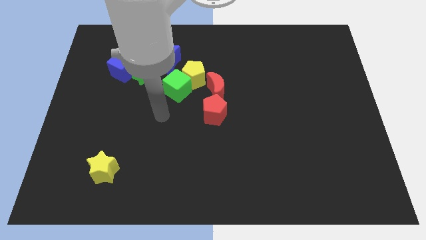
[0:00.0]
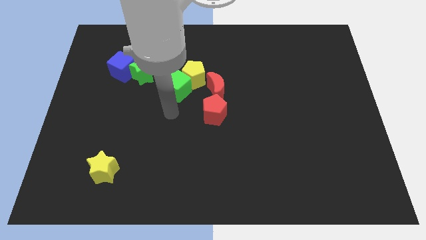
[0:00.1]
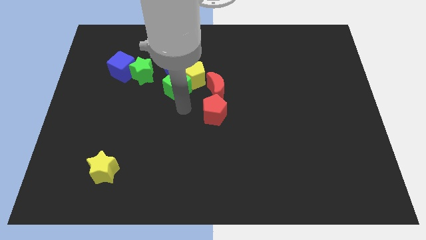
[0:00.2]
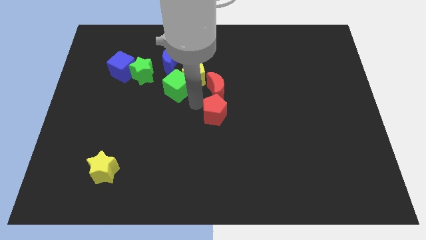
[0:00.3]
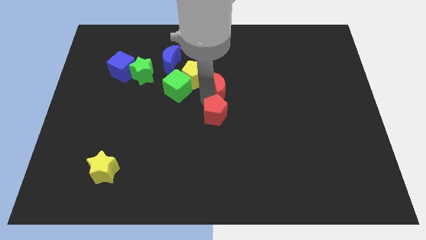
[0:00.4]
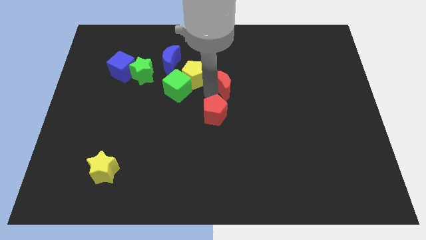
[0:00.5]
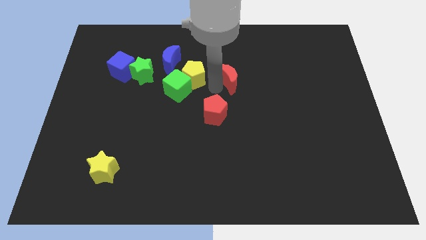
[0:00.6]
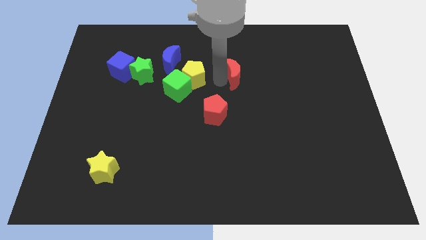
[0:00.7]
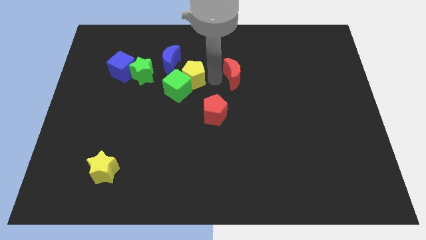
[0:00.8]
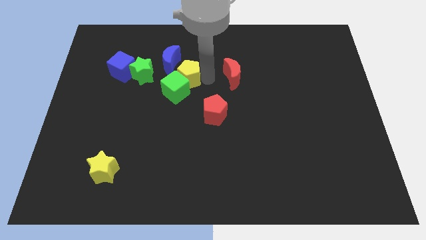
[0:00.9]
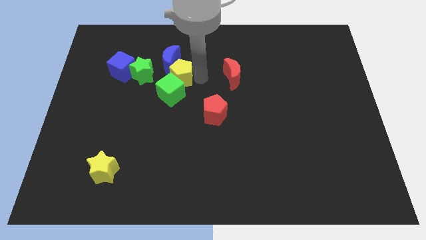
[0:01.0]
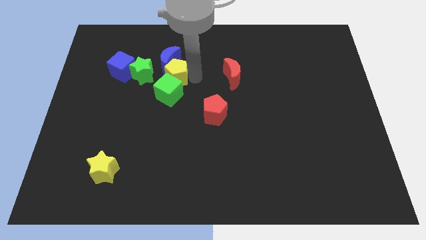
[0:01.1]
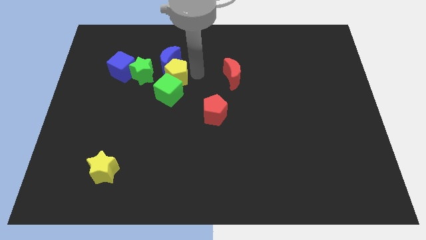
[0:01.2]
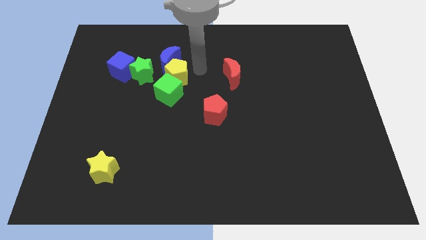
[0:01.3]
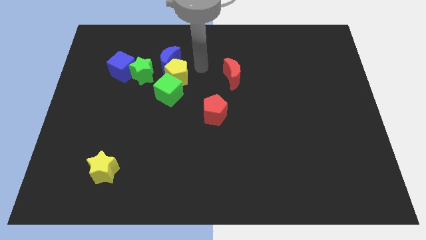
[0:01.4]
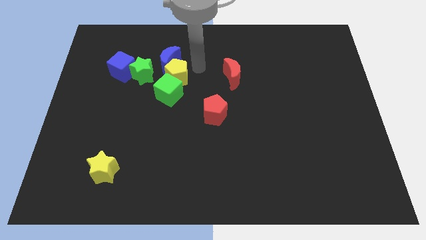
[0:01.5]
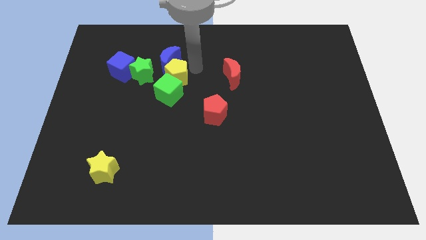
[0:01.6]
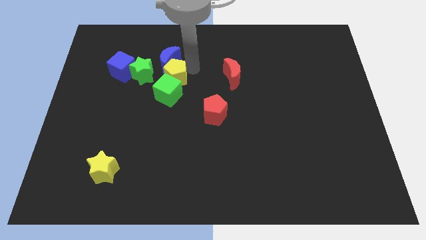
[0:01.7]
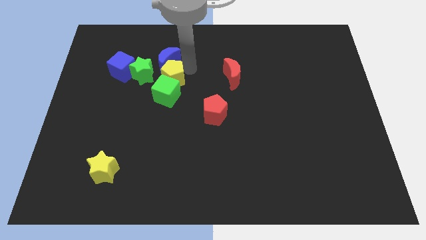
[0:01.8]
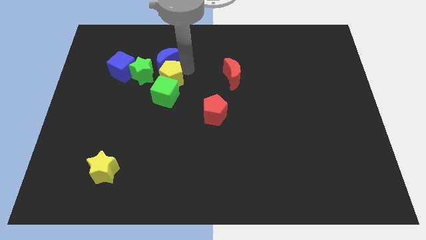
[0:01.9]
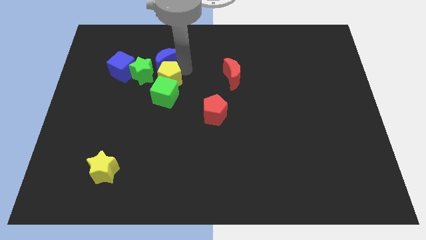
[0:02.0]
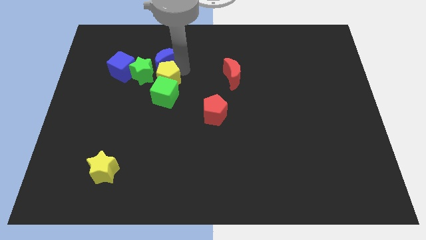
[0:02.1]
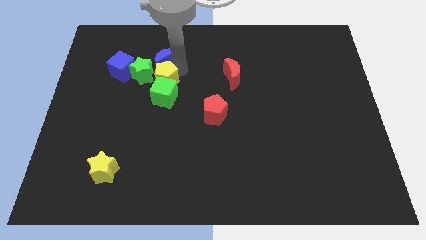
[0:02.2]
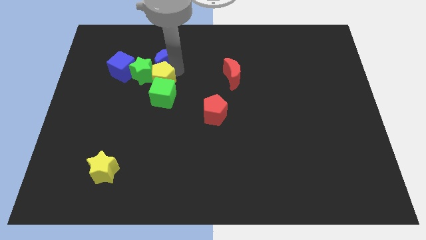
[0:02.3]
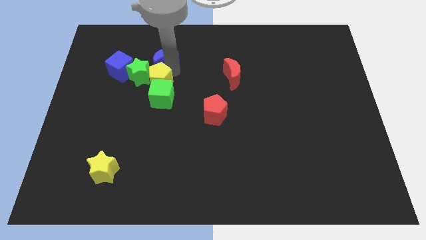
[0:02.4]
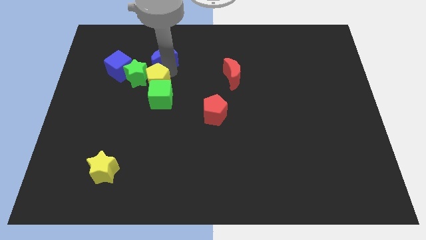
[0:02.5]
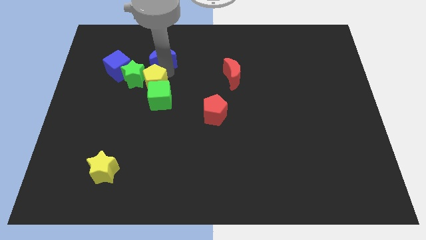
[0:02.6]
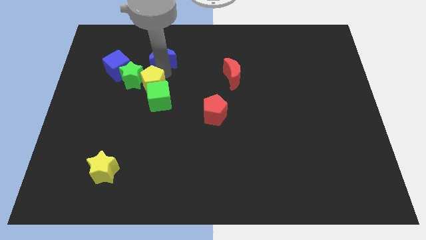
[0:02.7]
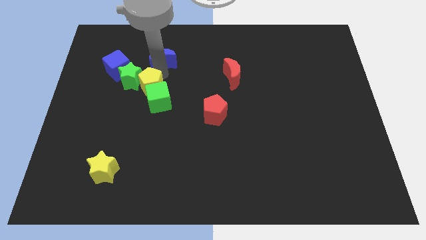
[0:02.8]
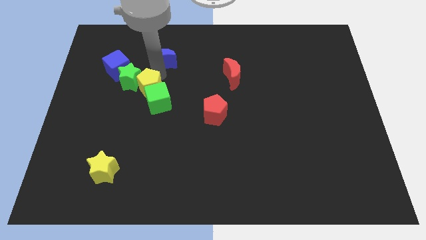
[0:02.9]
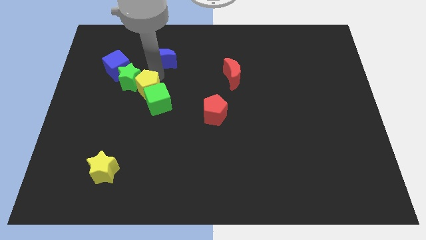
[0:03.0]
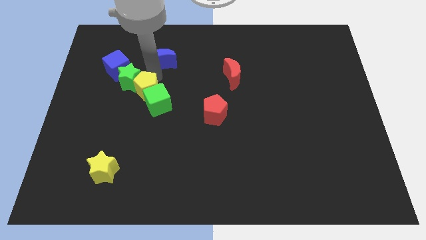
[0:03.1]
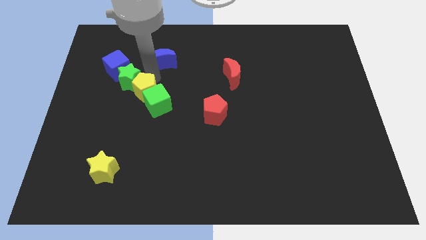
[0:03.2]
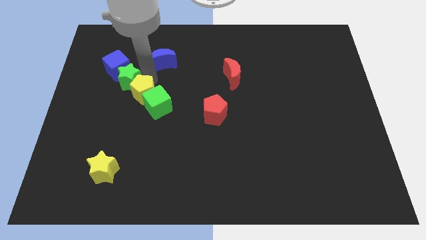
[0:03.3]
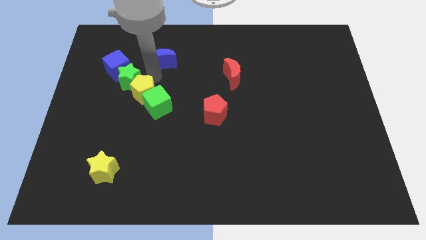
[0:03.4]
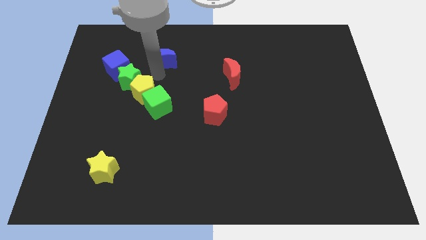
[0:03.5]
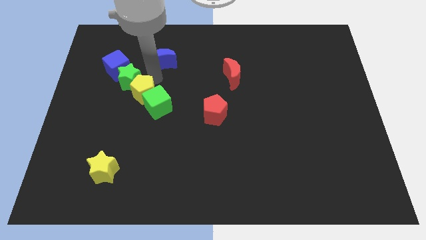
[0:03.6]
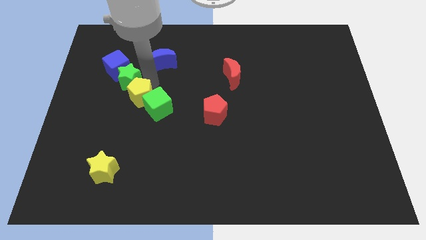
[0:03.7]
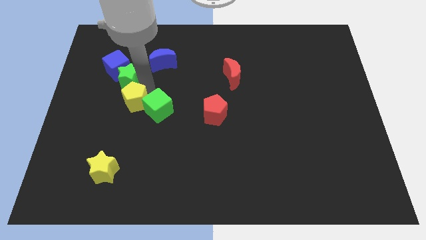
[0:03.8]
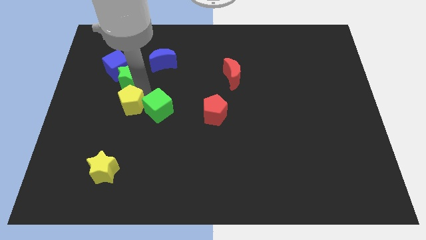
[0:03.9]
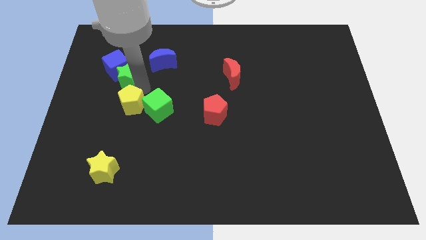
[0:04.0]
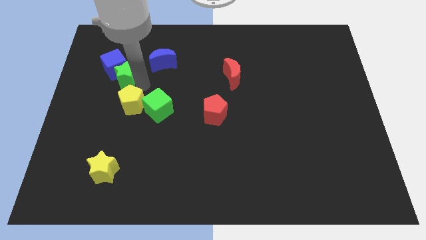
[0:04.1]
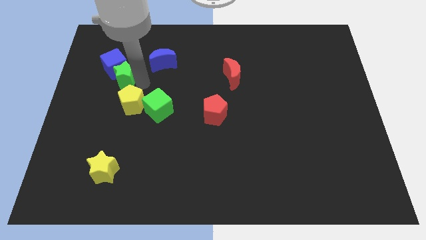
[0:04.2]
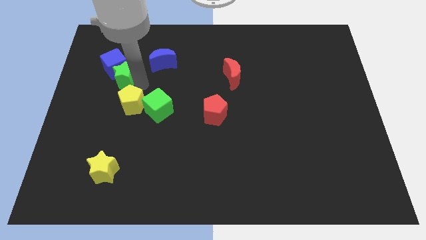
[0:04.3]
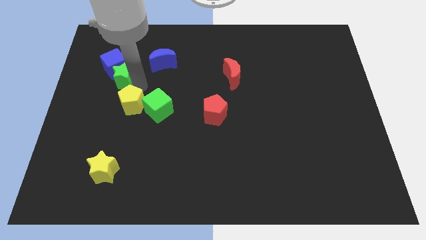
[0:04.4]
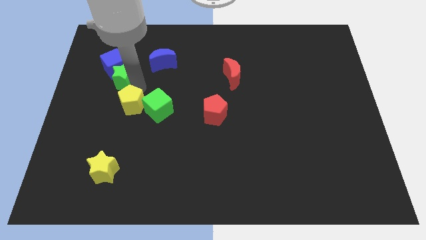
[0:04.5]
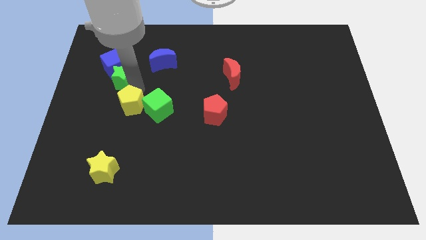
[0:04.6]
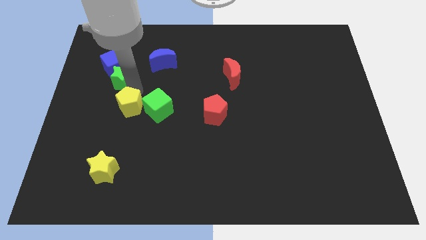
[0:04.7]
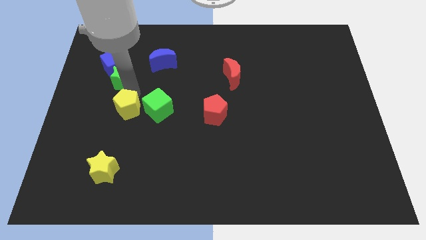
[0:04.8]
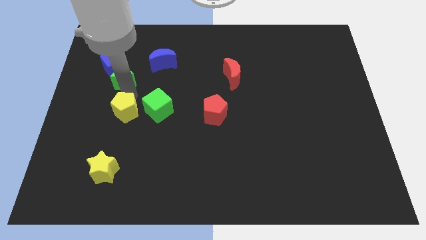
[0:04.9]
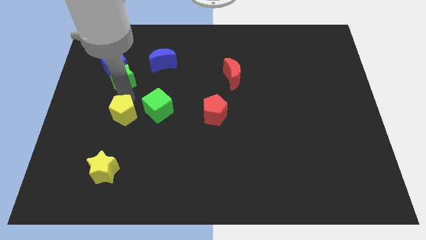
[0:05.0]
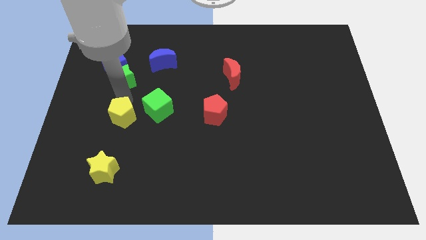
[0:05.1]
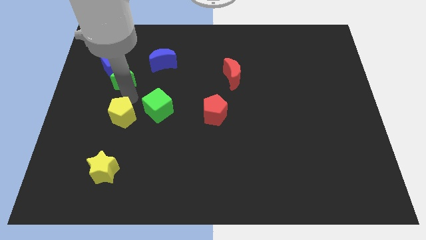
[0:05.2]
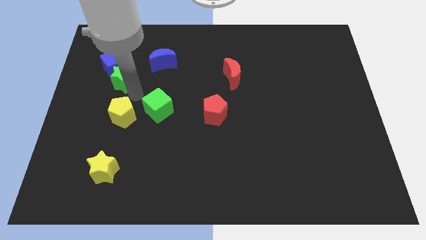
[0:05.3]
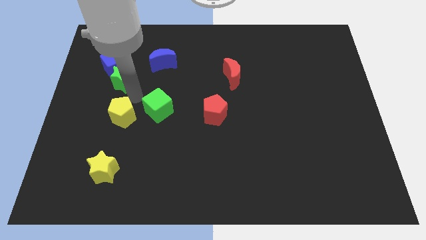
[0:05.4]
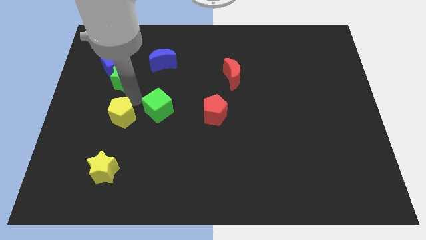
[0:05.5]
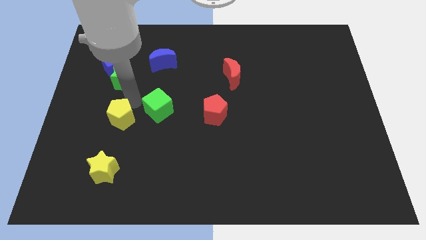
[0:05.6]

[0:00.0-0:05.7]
push the yellow pentagon down and then to the left

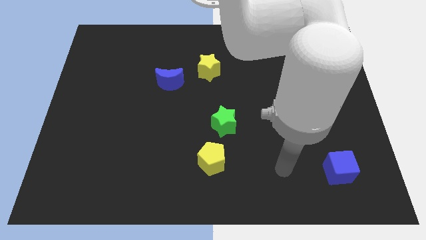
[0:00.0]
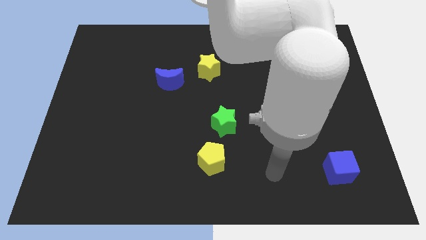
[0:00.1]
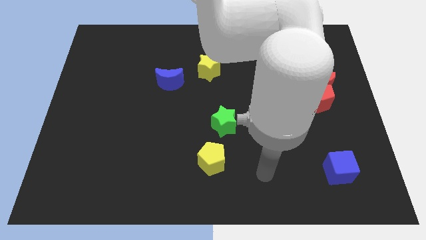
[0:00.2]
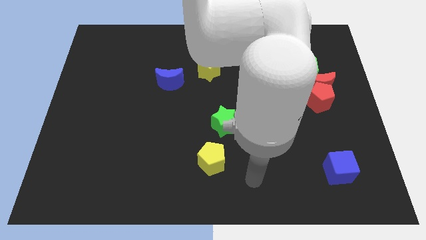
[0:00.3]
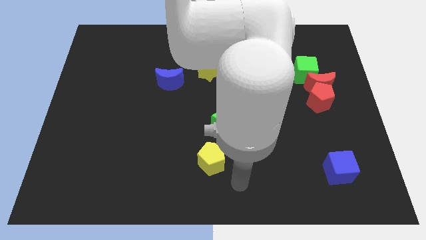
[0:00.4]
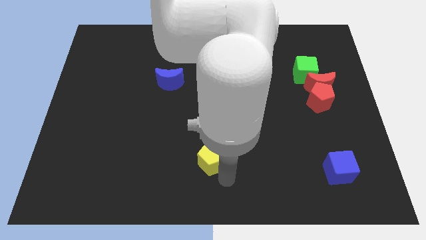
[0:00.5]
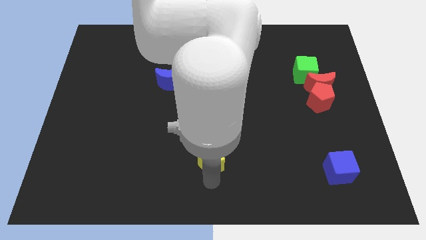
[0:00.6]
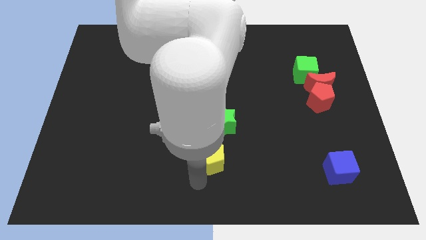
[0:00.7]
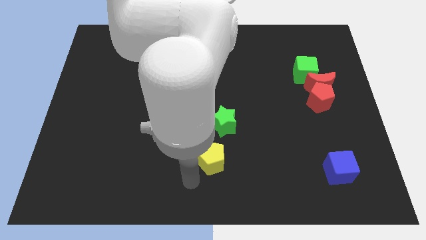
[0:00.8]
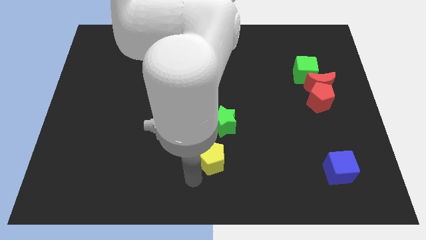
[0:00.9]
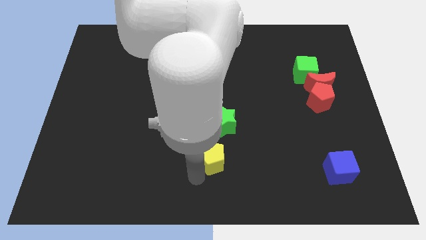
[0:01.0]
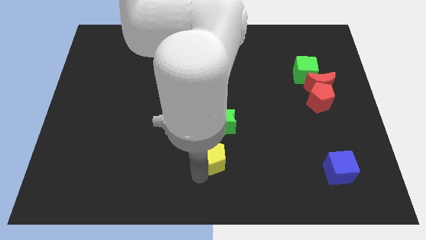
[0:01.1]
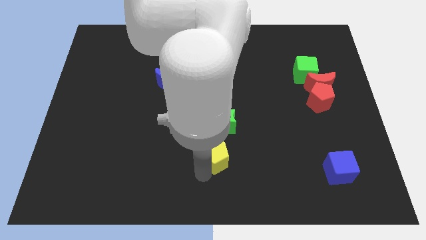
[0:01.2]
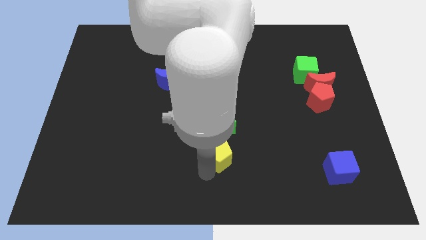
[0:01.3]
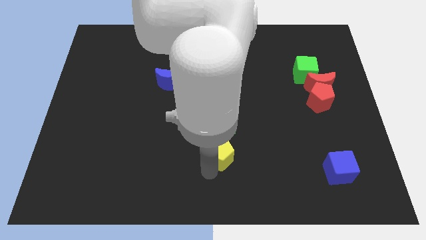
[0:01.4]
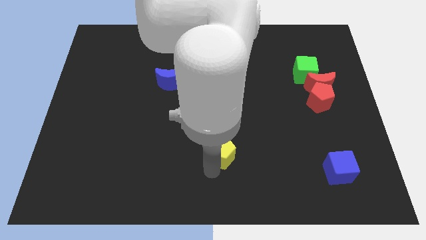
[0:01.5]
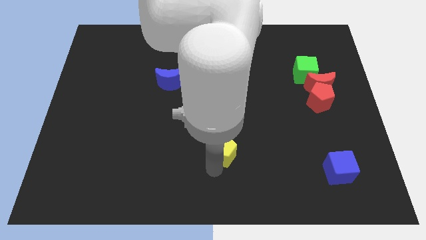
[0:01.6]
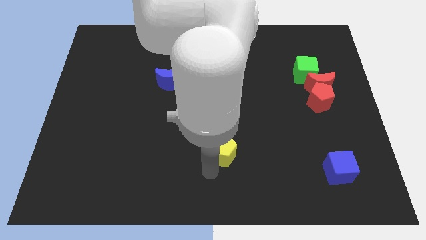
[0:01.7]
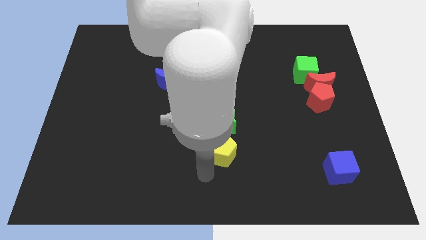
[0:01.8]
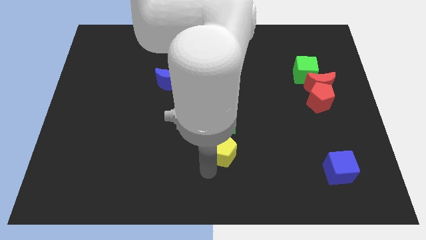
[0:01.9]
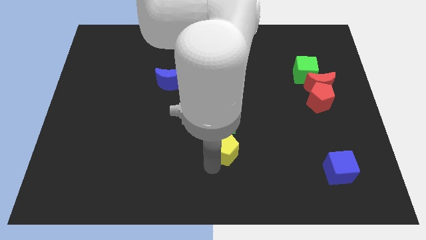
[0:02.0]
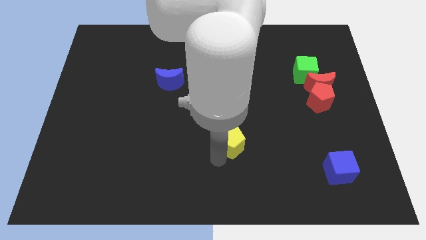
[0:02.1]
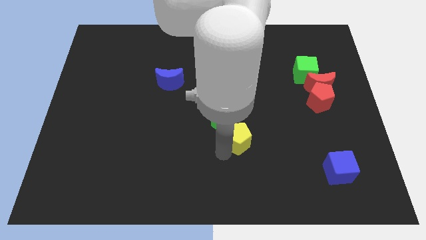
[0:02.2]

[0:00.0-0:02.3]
slide the yellow pentagon a little up and to the right

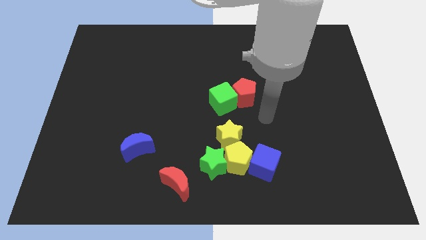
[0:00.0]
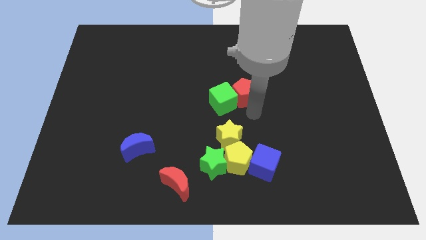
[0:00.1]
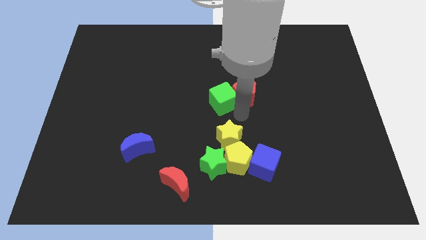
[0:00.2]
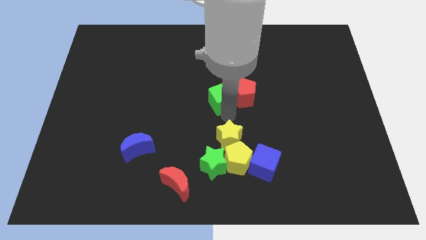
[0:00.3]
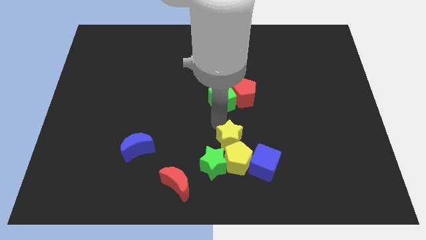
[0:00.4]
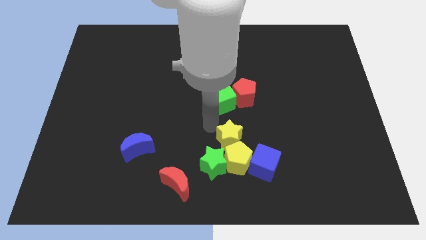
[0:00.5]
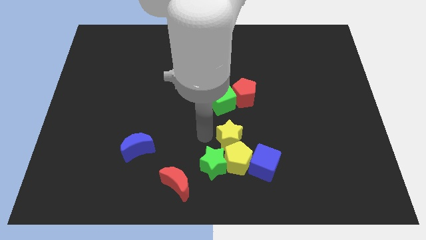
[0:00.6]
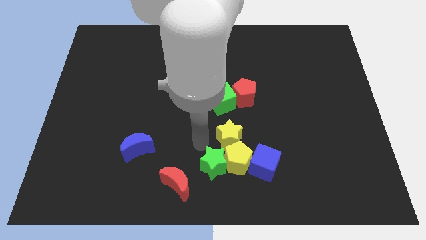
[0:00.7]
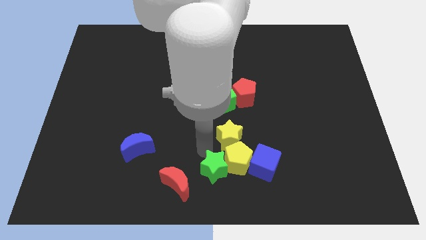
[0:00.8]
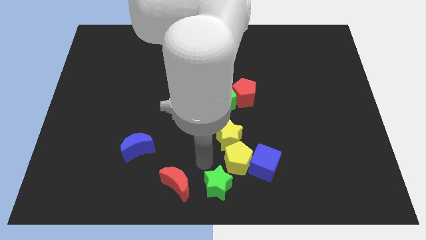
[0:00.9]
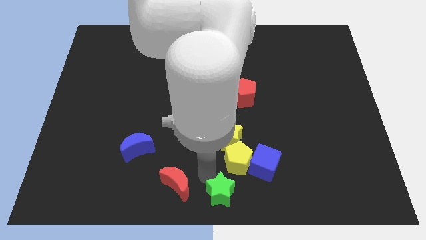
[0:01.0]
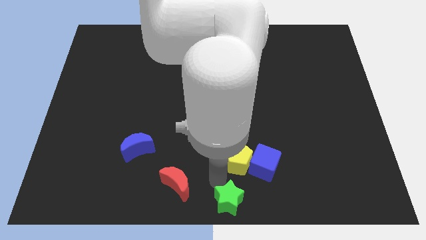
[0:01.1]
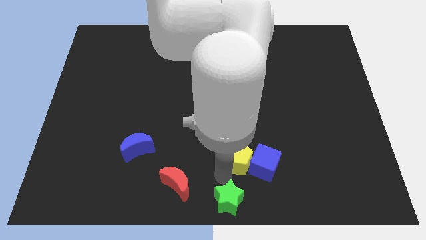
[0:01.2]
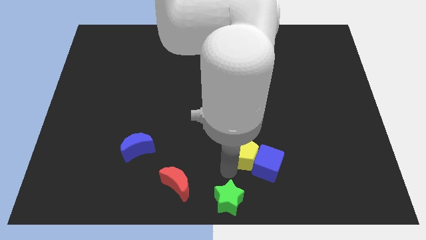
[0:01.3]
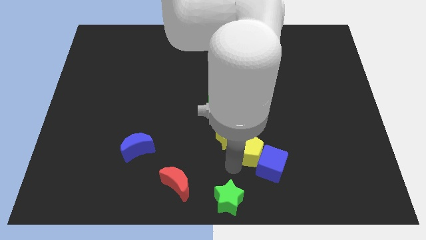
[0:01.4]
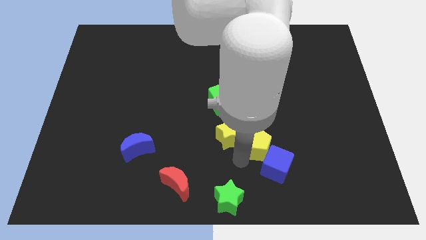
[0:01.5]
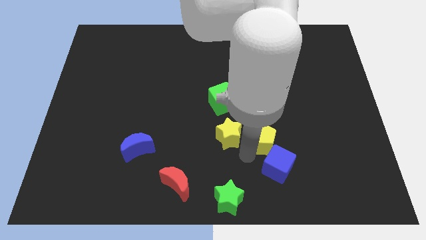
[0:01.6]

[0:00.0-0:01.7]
slide the yellow pentagon somewhat up and right diagonally
